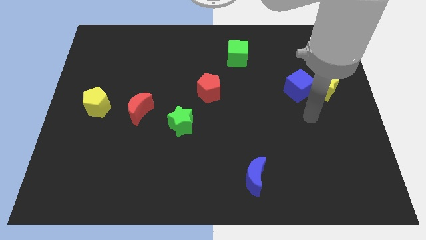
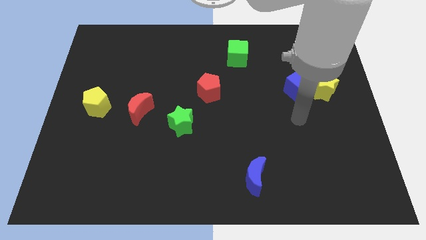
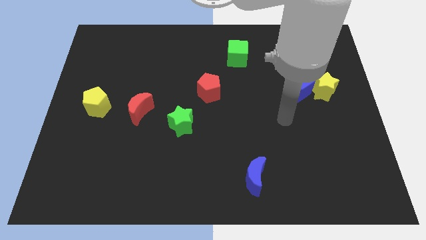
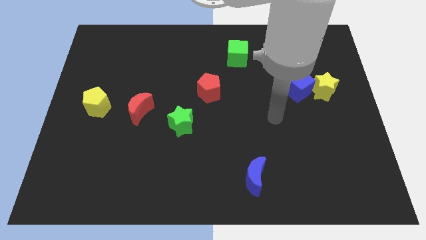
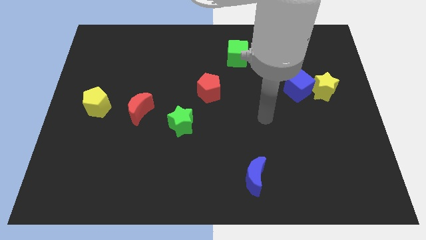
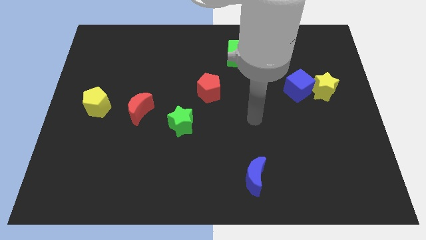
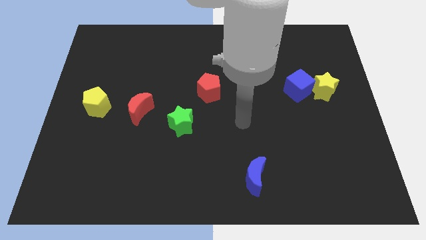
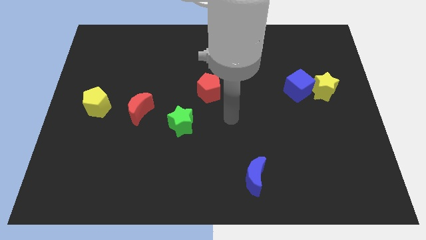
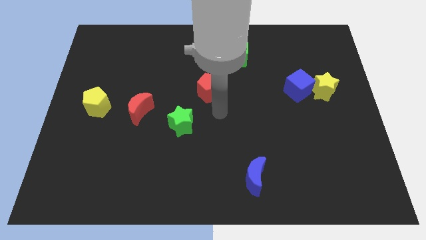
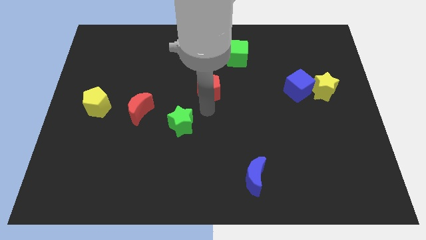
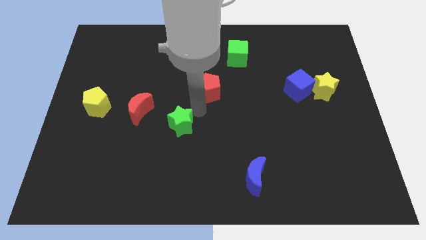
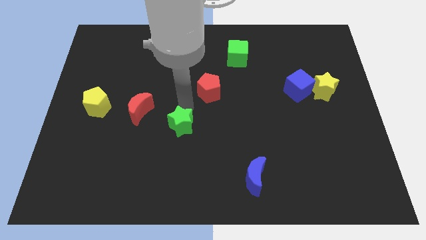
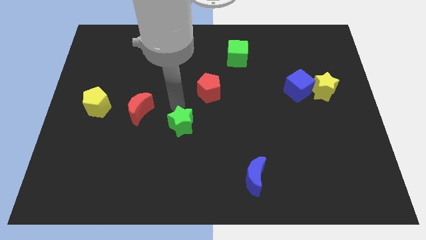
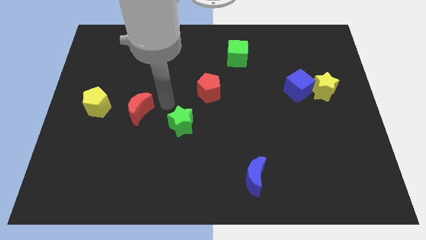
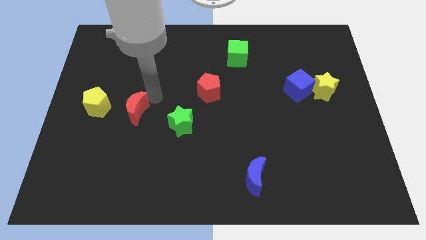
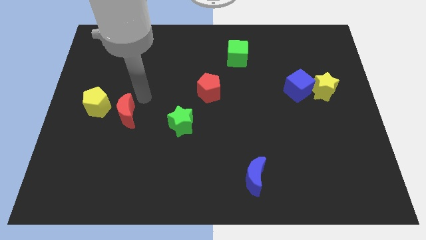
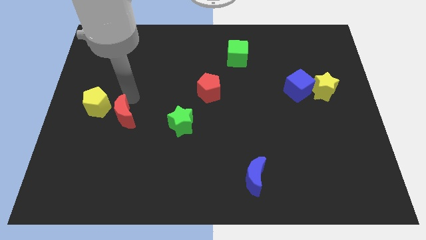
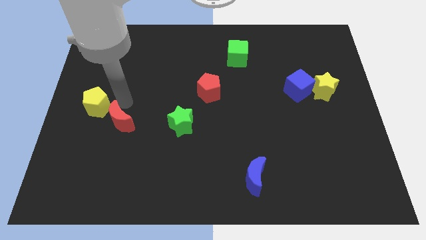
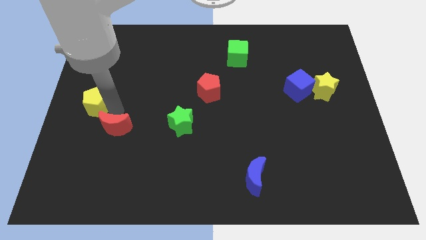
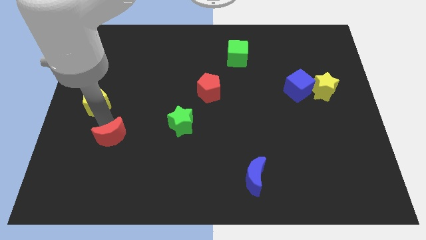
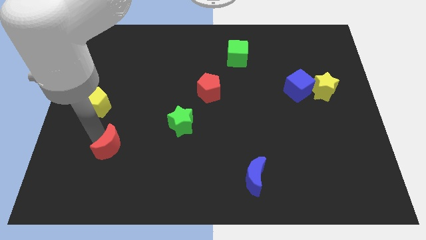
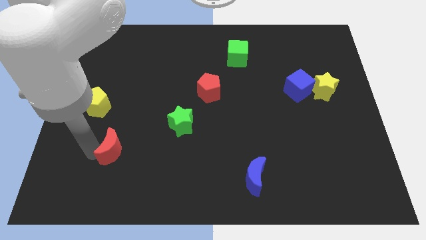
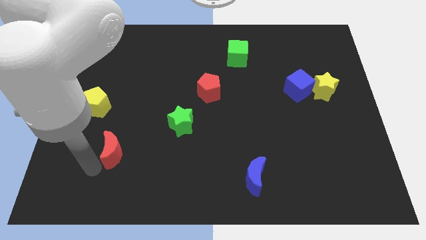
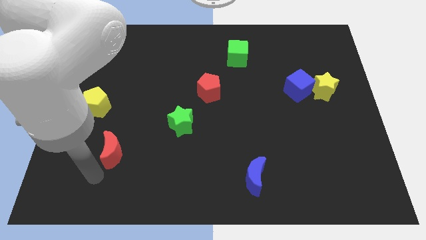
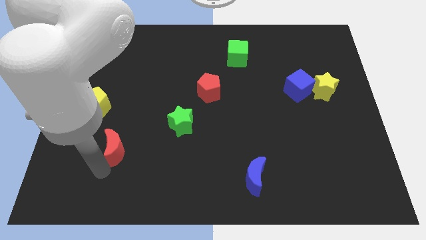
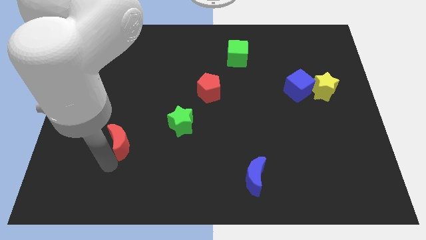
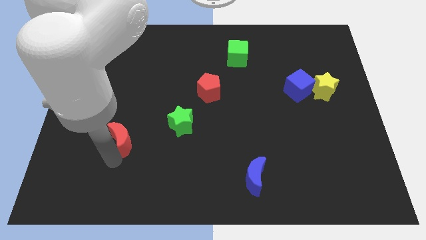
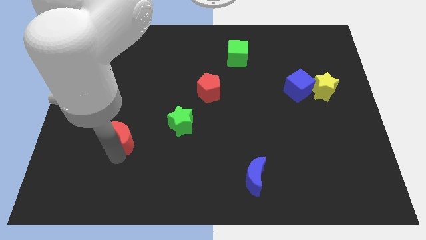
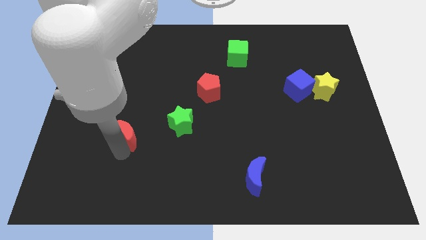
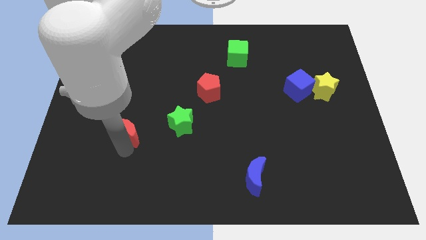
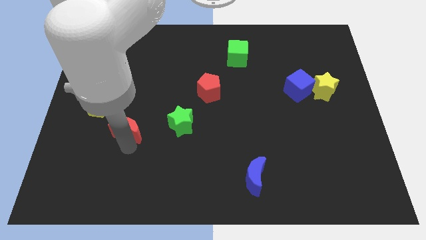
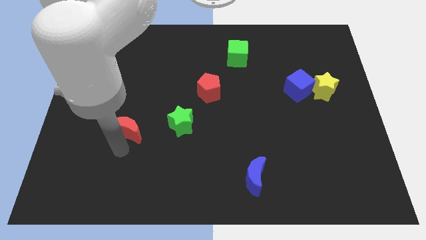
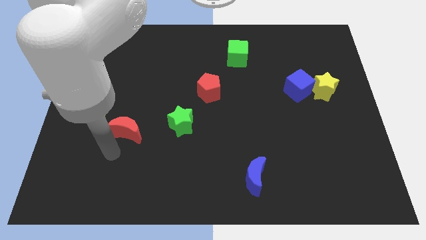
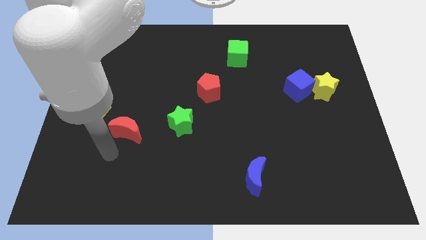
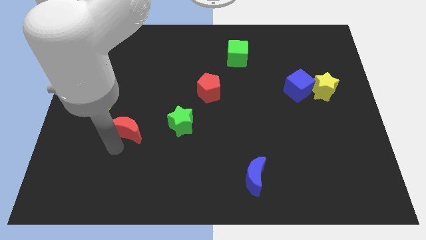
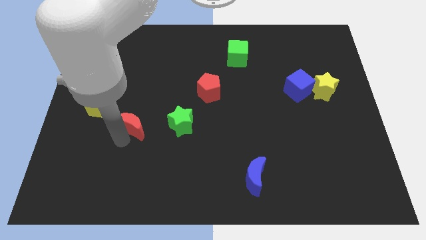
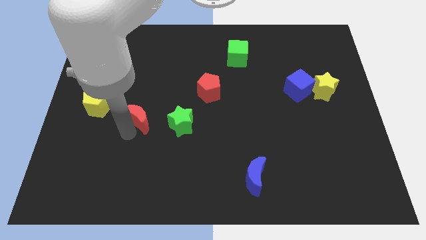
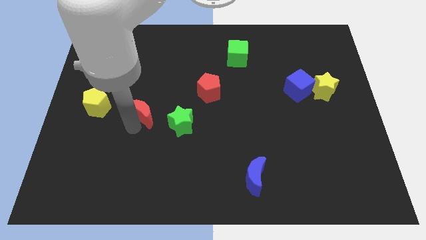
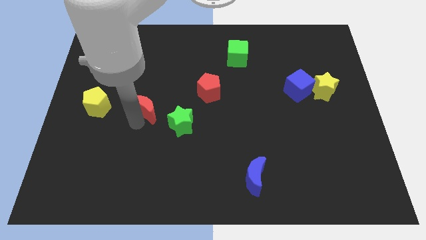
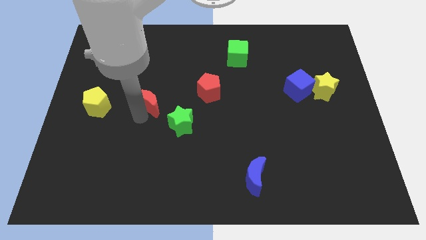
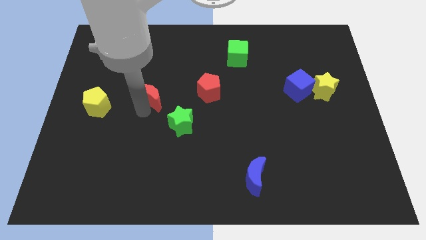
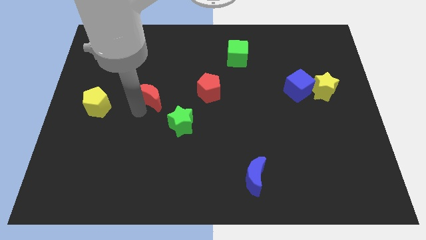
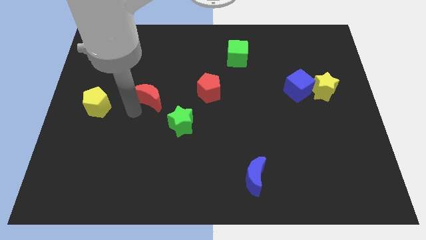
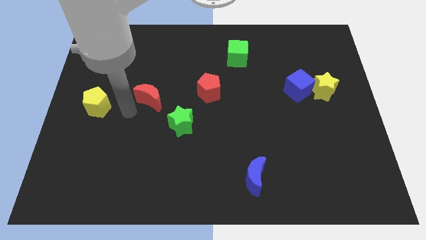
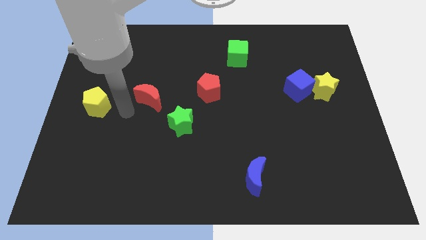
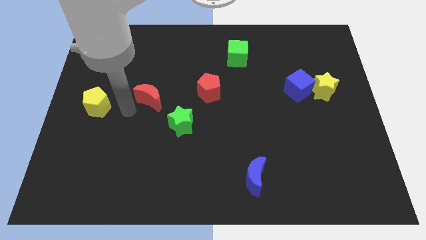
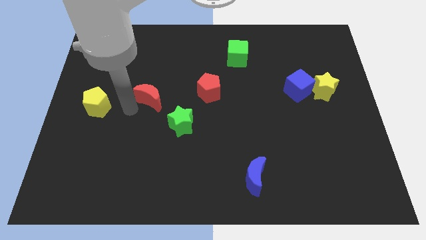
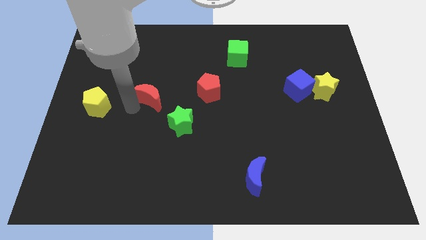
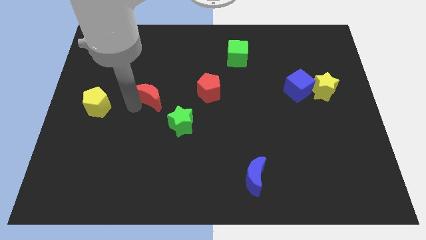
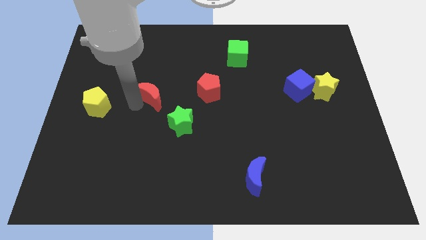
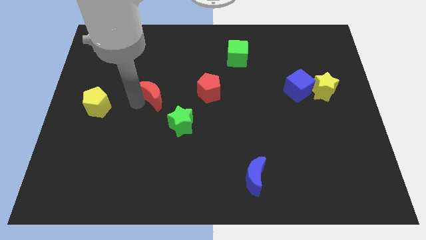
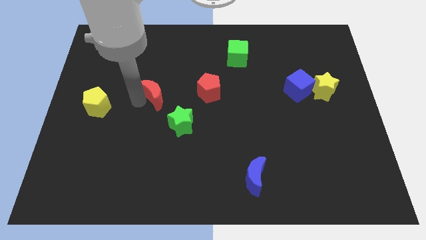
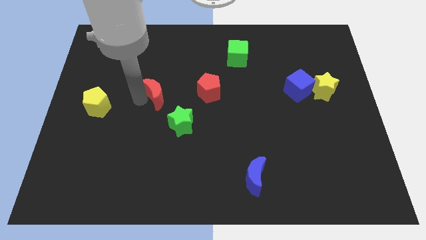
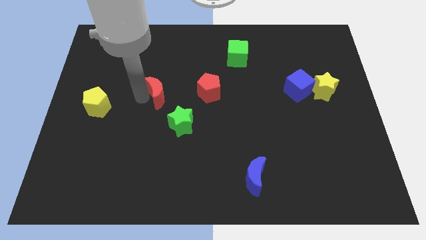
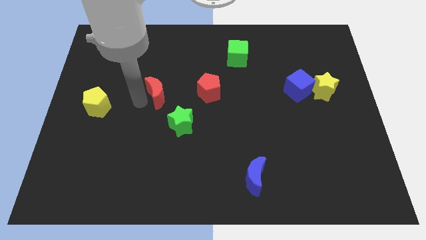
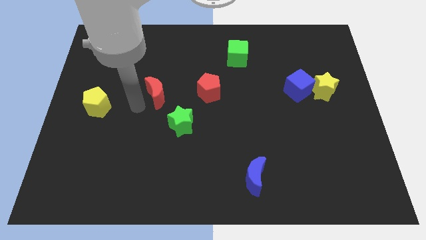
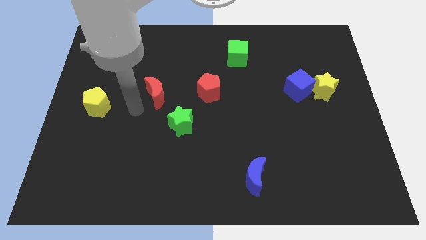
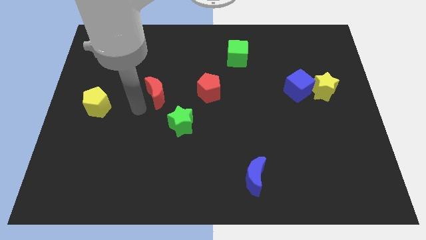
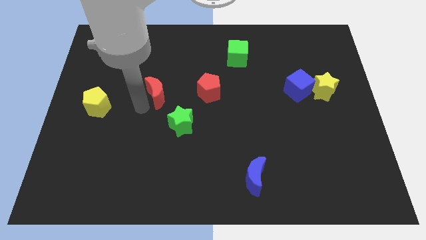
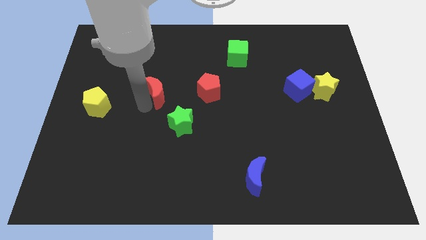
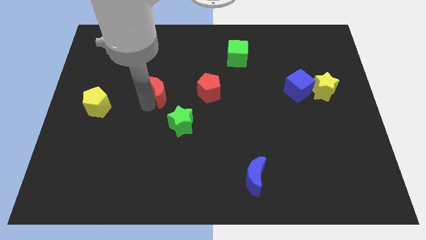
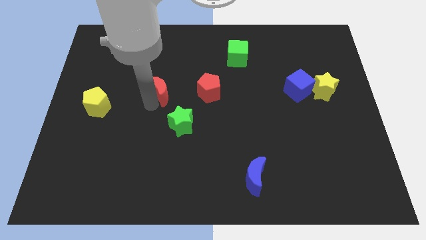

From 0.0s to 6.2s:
push the red moon upwards and then right a little

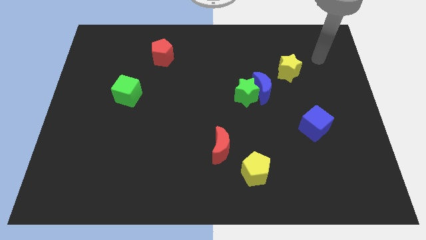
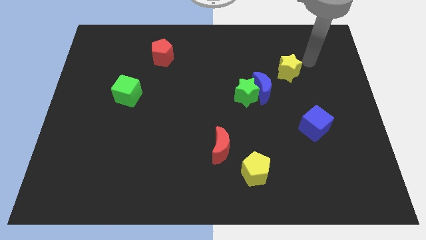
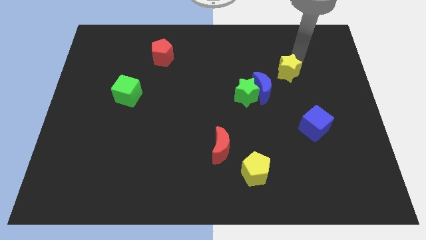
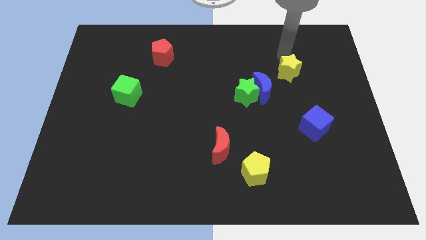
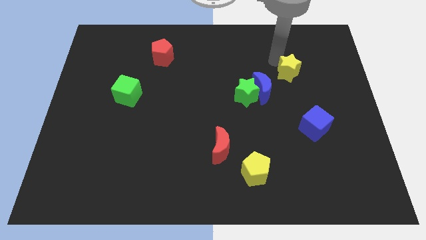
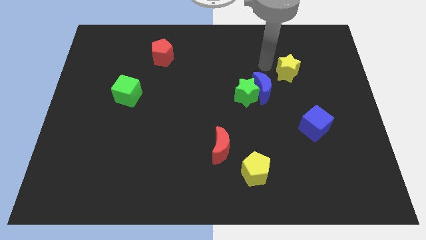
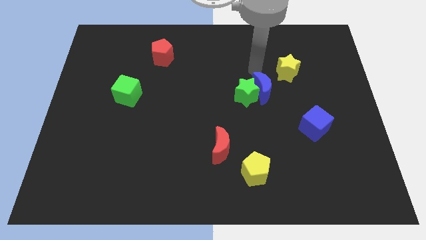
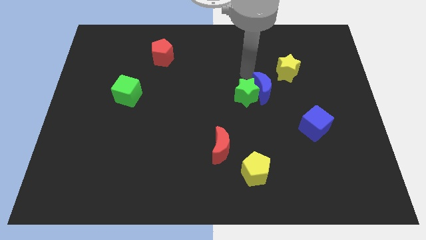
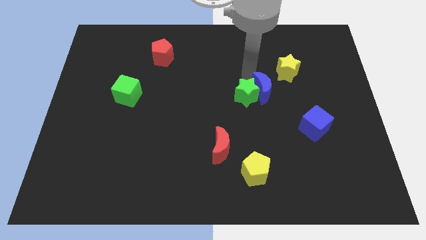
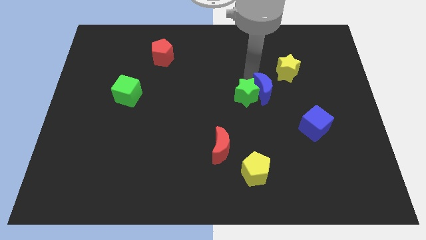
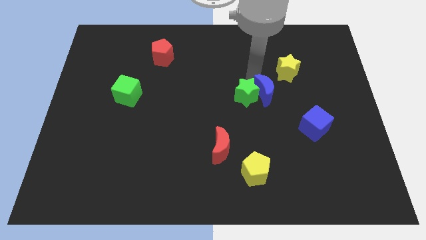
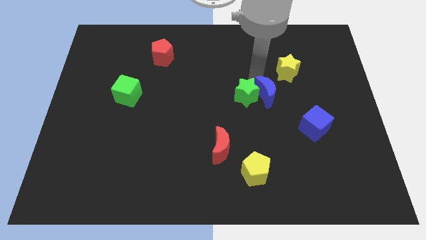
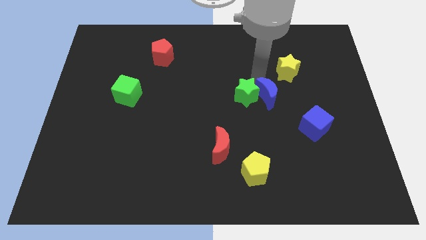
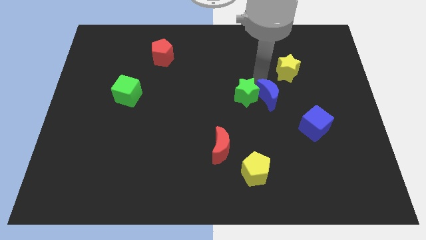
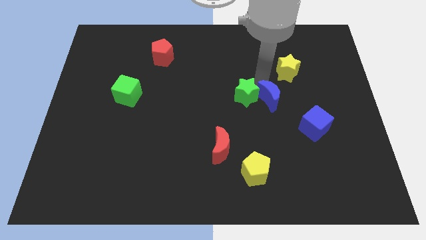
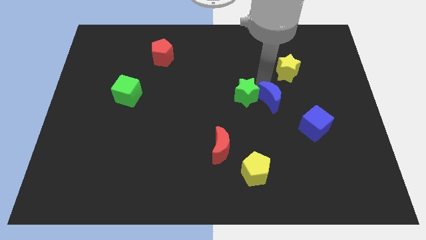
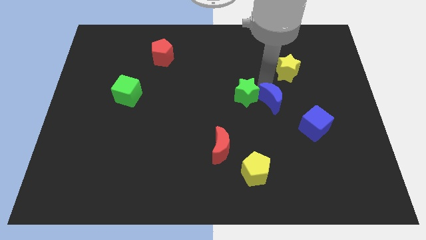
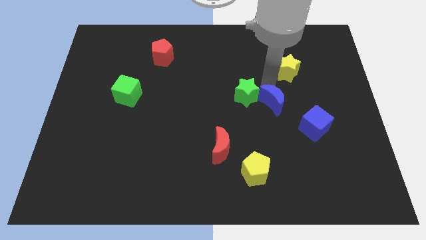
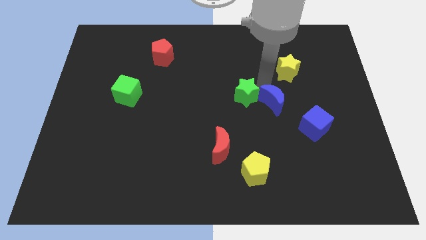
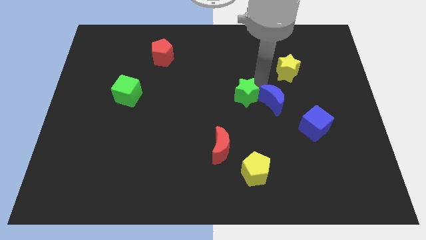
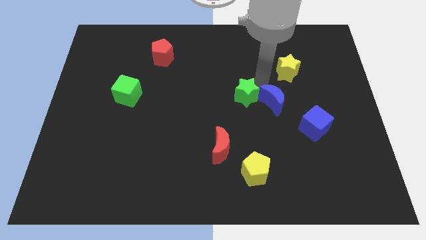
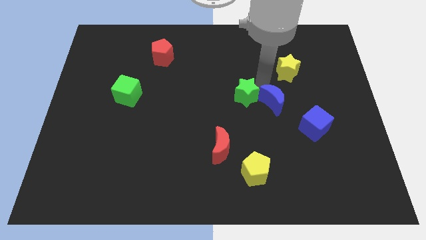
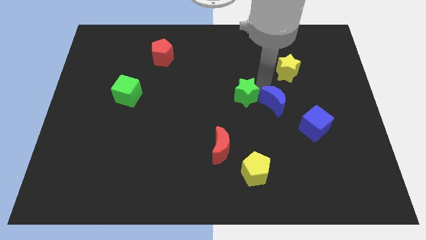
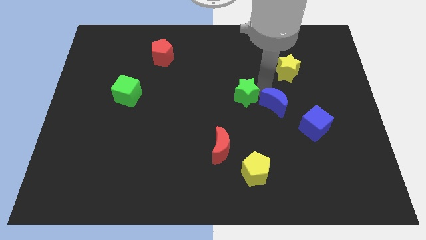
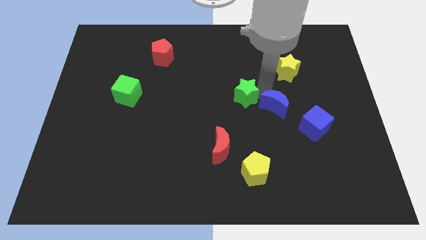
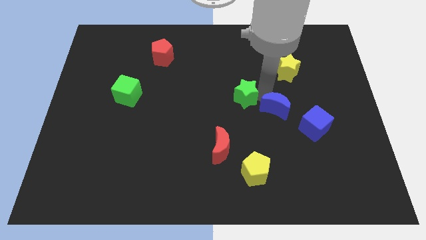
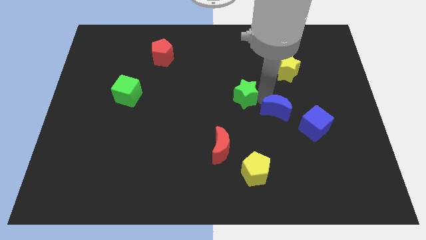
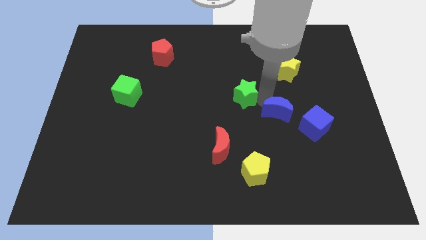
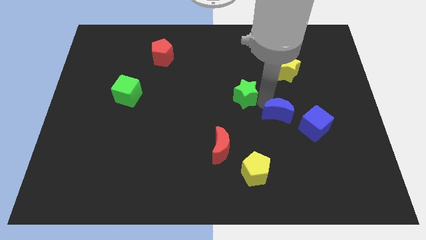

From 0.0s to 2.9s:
slightly slide the blue moon downwards and right diagonally
